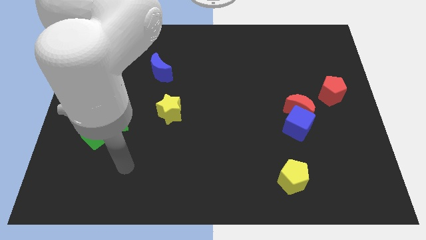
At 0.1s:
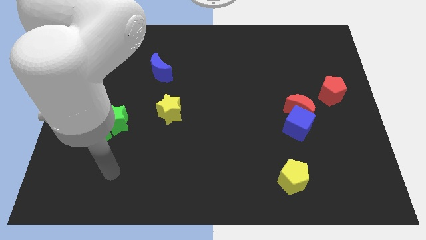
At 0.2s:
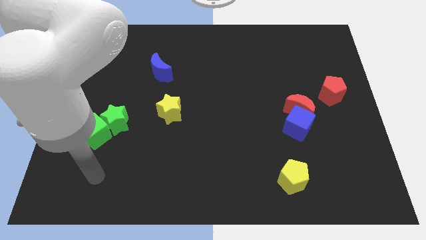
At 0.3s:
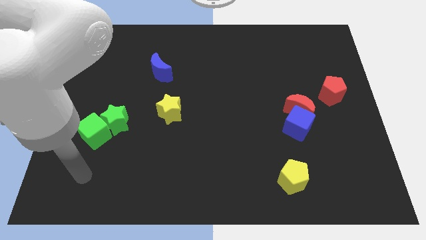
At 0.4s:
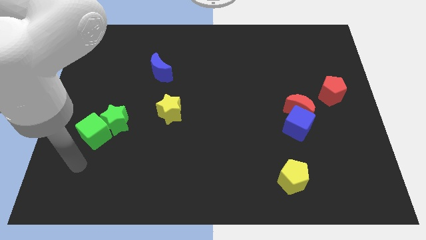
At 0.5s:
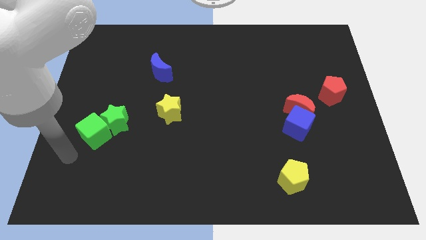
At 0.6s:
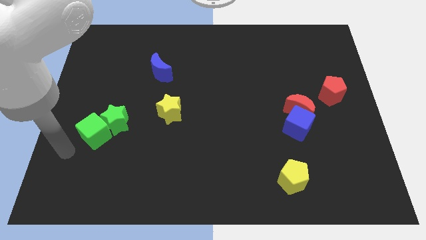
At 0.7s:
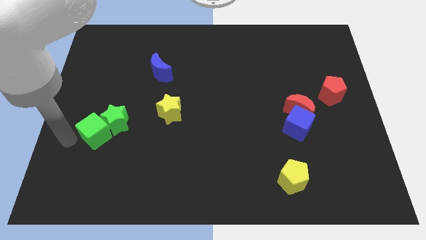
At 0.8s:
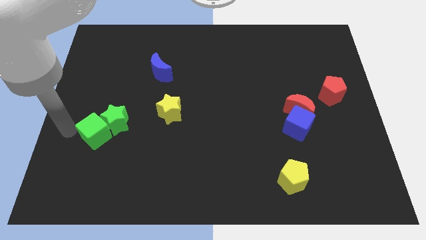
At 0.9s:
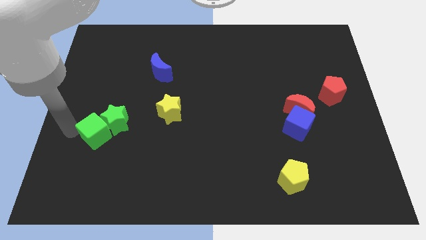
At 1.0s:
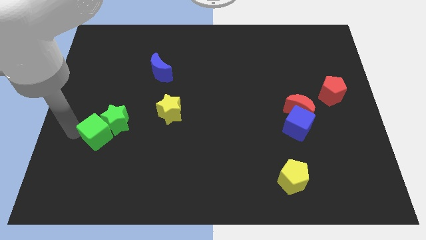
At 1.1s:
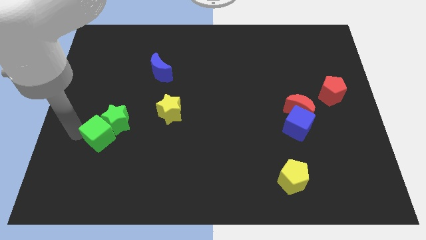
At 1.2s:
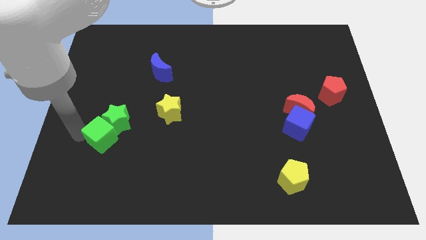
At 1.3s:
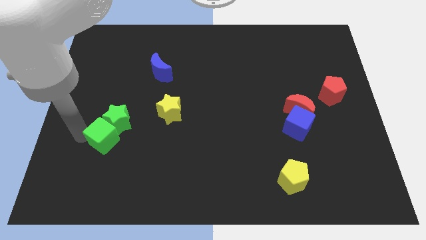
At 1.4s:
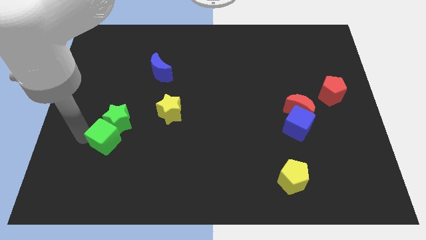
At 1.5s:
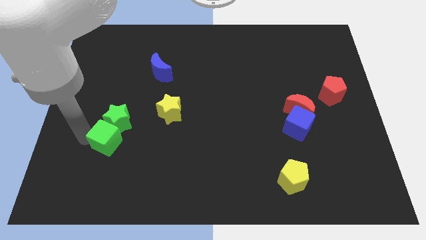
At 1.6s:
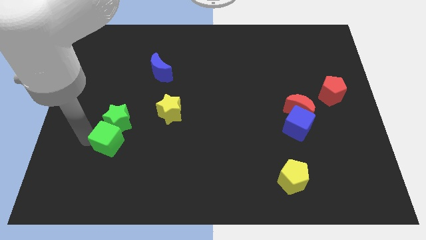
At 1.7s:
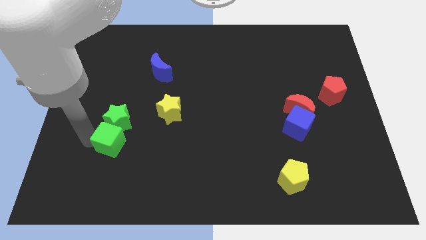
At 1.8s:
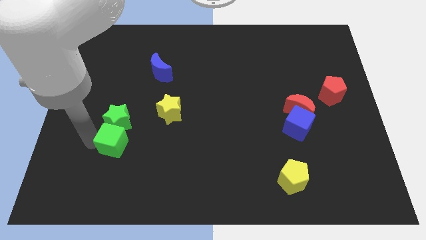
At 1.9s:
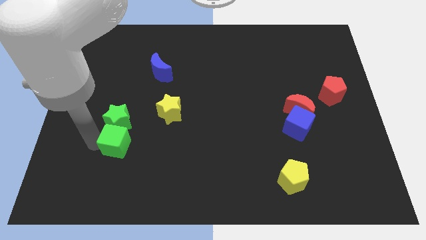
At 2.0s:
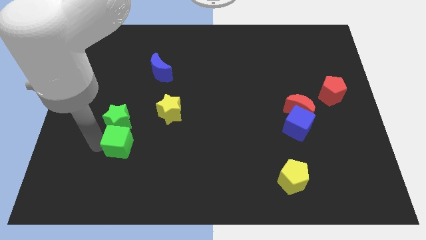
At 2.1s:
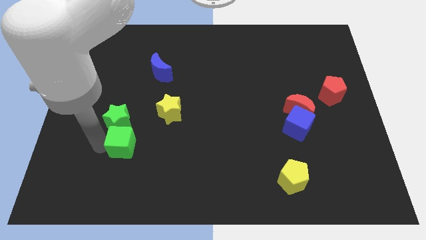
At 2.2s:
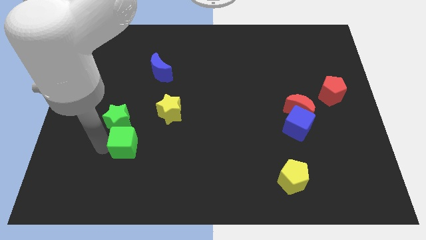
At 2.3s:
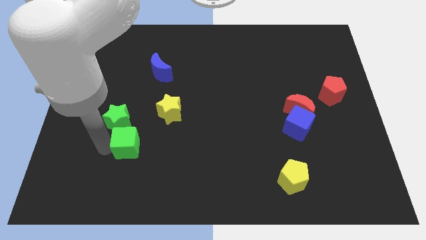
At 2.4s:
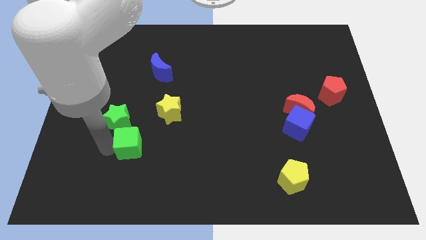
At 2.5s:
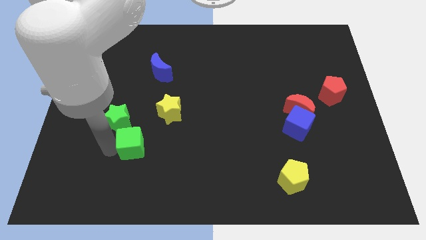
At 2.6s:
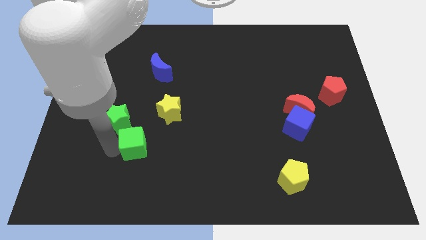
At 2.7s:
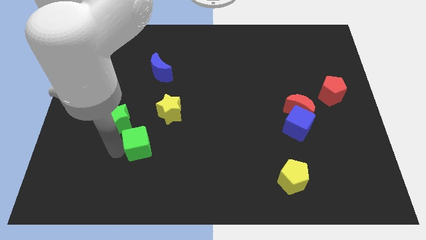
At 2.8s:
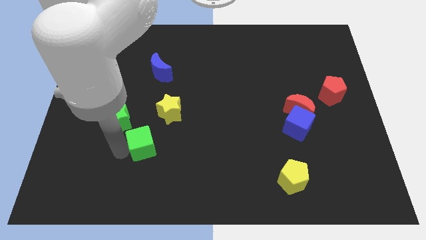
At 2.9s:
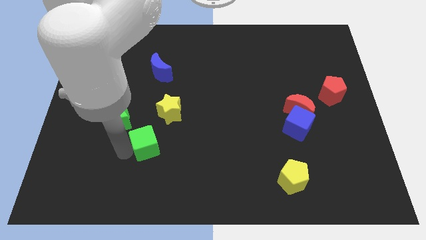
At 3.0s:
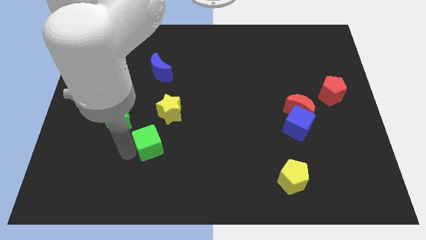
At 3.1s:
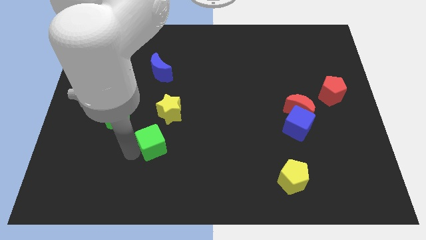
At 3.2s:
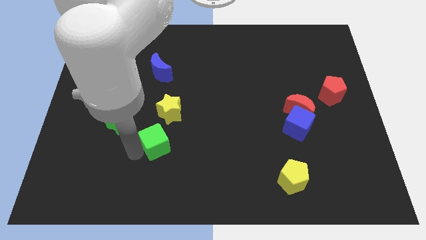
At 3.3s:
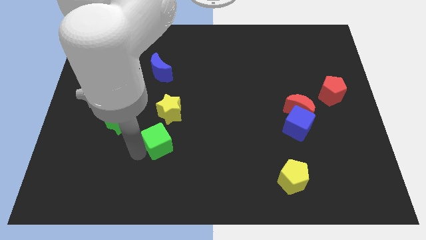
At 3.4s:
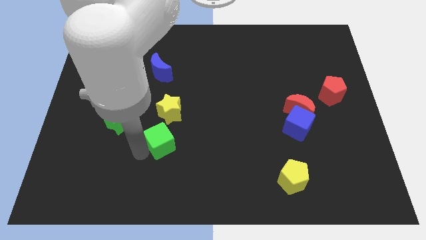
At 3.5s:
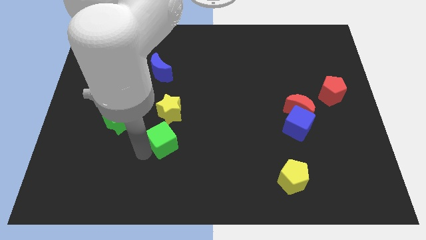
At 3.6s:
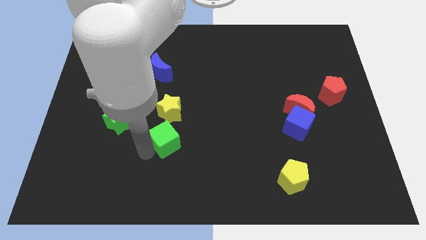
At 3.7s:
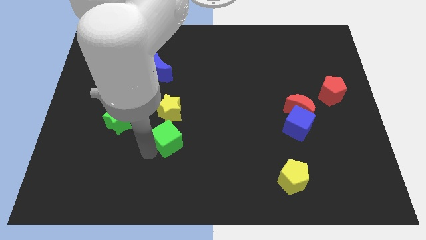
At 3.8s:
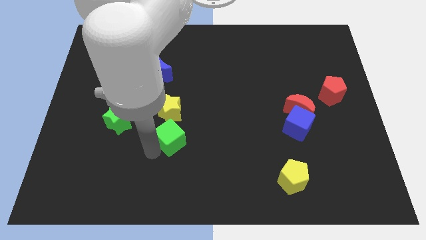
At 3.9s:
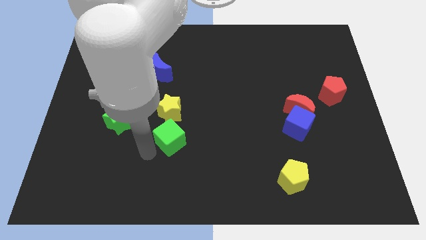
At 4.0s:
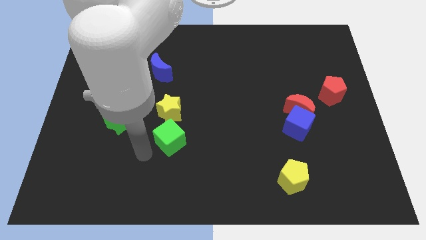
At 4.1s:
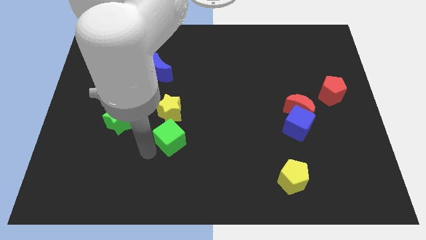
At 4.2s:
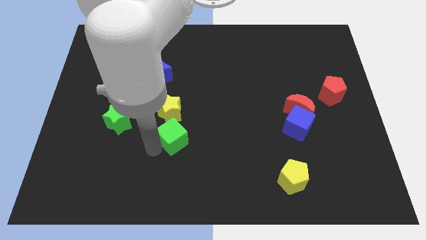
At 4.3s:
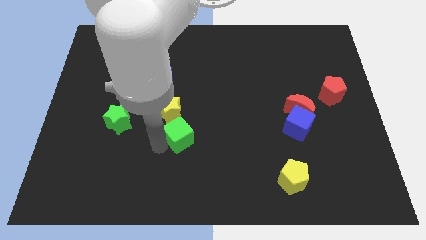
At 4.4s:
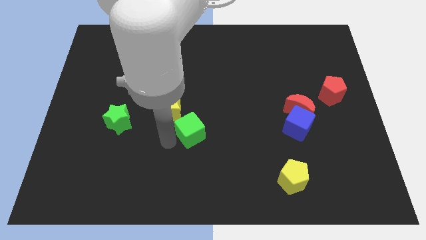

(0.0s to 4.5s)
move the green cube right

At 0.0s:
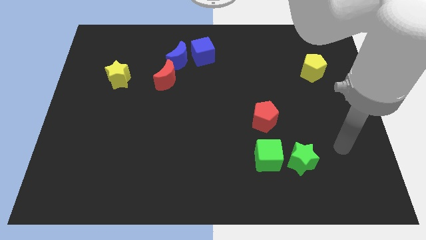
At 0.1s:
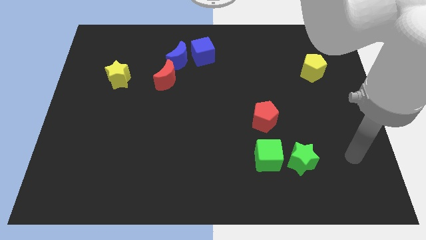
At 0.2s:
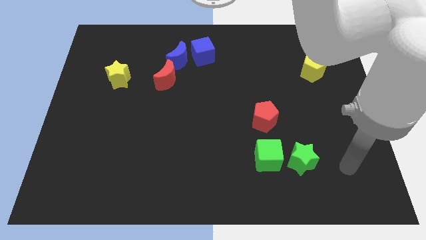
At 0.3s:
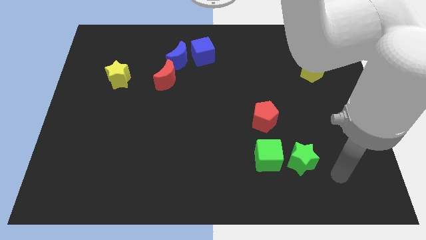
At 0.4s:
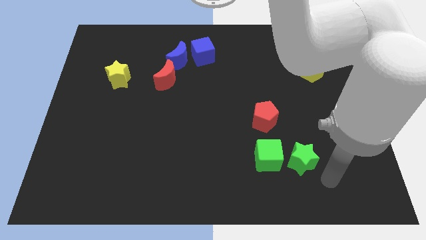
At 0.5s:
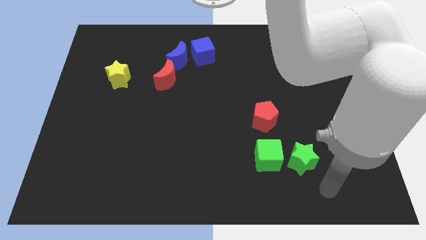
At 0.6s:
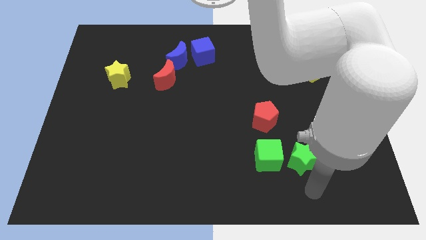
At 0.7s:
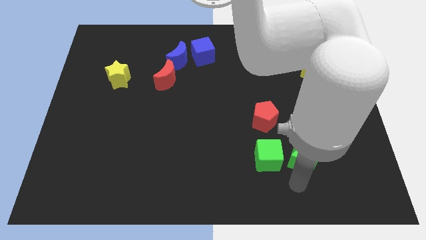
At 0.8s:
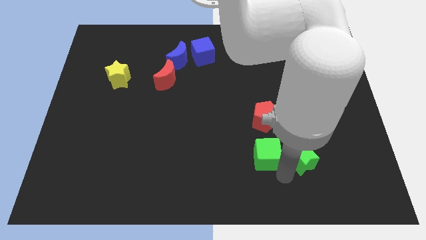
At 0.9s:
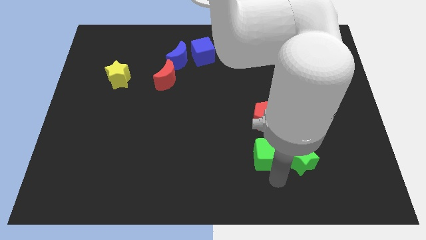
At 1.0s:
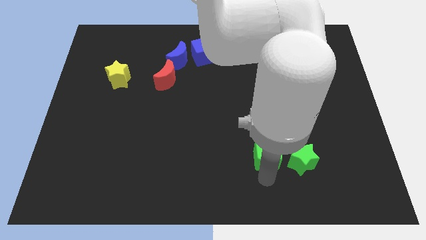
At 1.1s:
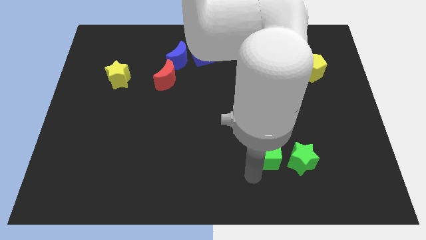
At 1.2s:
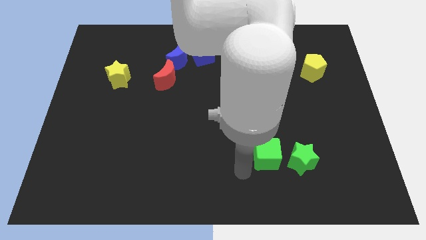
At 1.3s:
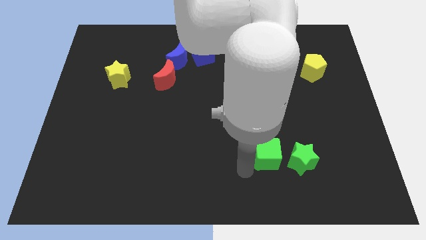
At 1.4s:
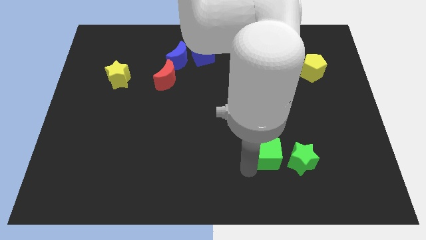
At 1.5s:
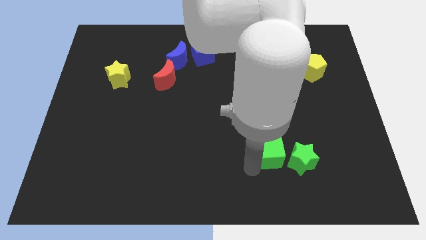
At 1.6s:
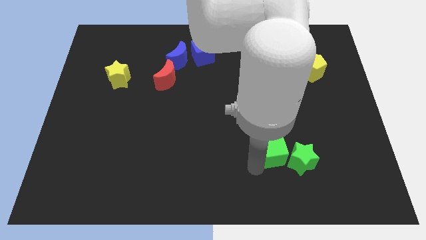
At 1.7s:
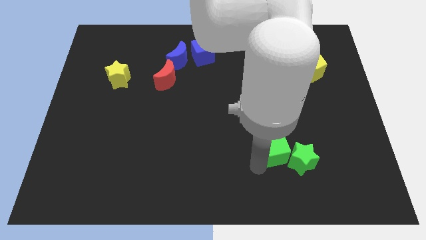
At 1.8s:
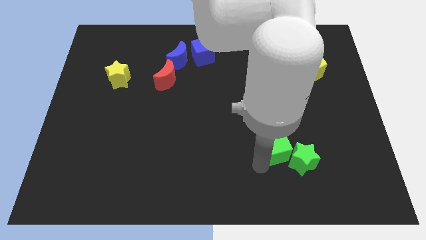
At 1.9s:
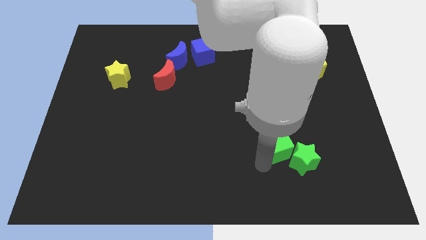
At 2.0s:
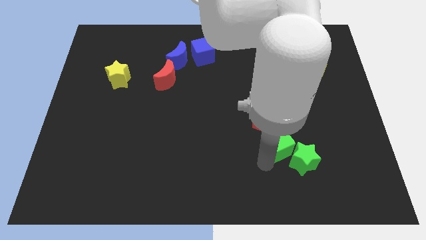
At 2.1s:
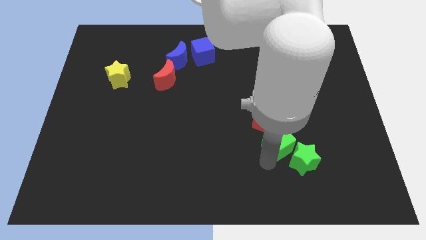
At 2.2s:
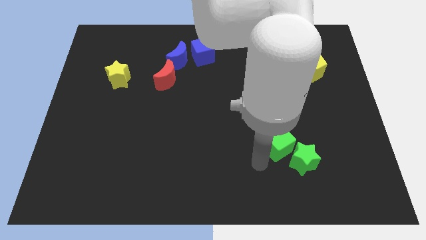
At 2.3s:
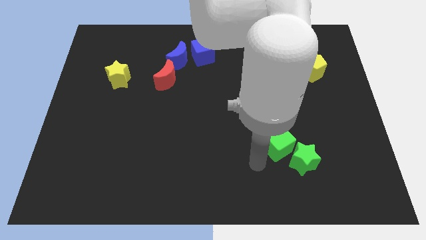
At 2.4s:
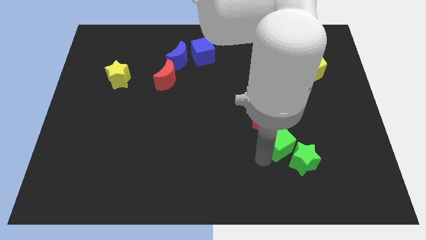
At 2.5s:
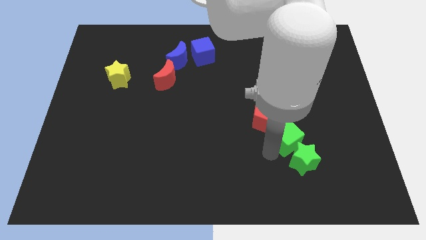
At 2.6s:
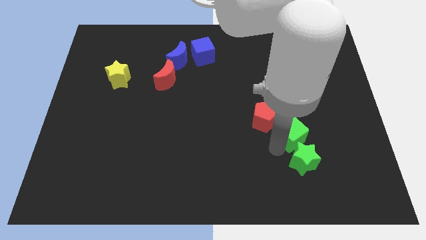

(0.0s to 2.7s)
move the green cube a little bit up and right diagonally

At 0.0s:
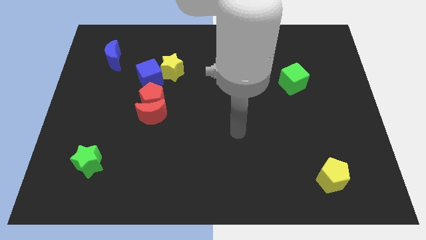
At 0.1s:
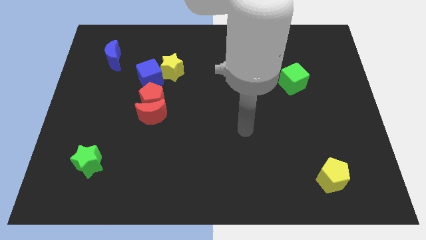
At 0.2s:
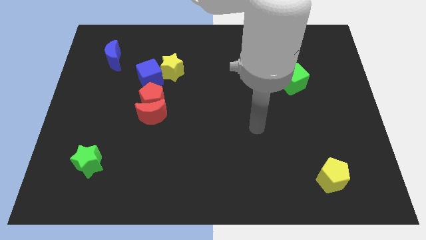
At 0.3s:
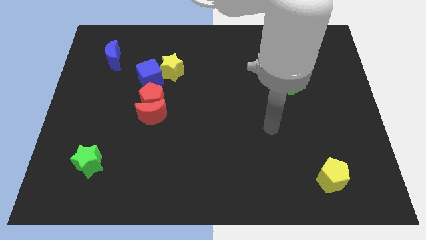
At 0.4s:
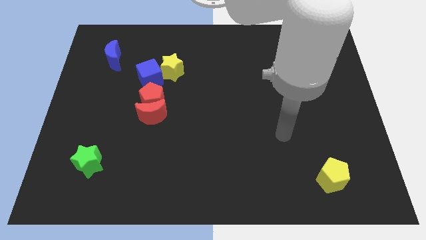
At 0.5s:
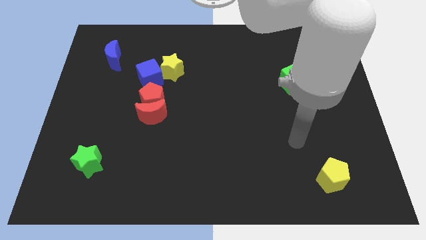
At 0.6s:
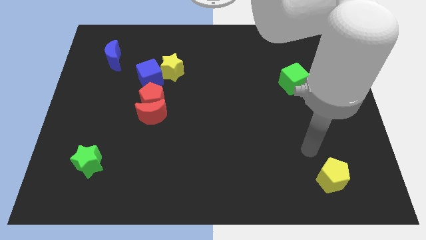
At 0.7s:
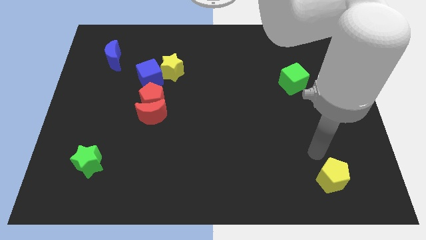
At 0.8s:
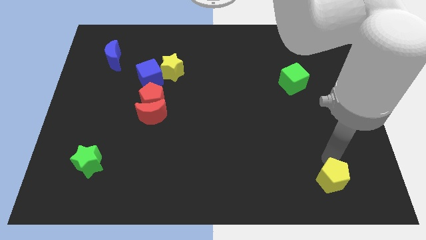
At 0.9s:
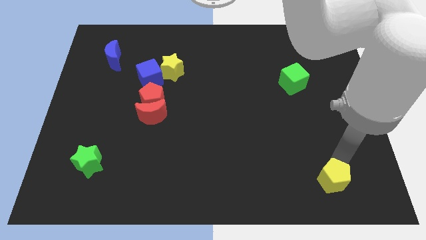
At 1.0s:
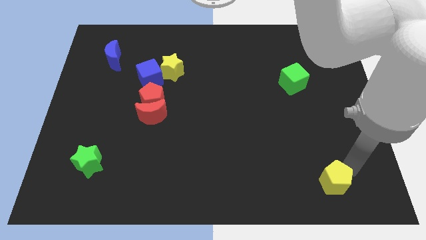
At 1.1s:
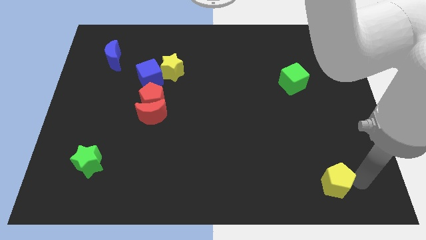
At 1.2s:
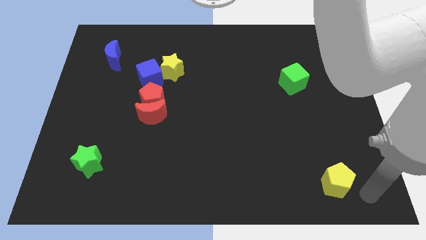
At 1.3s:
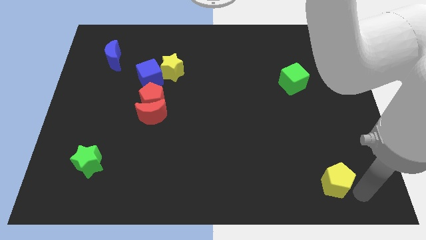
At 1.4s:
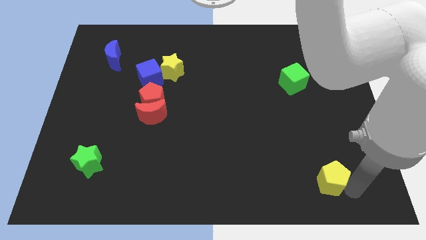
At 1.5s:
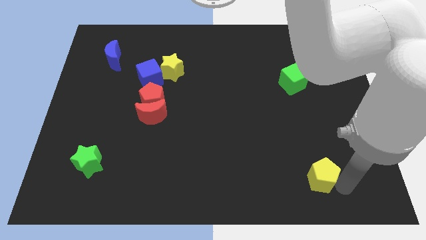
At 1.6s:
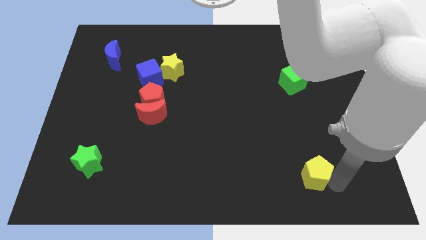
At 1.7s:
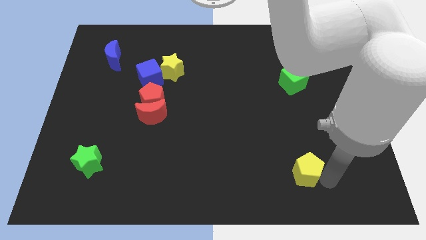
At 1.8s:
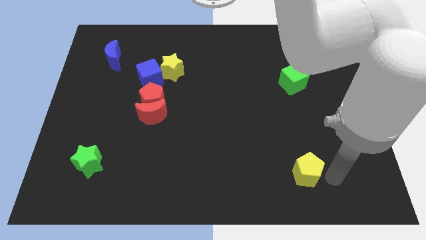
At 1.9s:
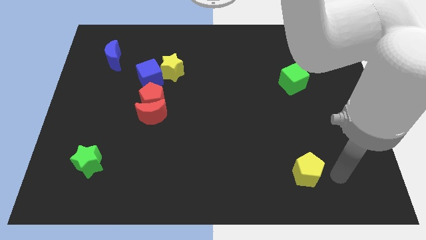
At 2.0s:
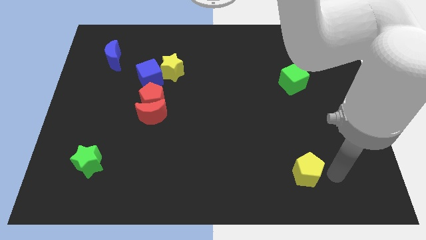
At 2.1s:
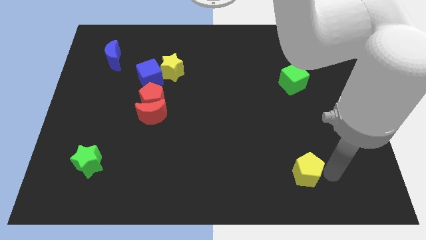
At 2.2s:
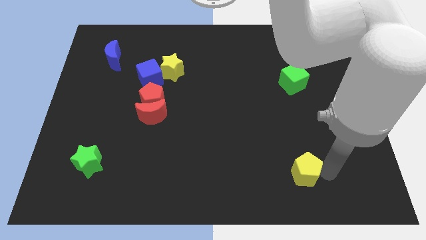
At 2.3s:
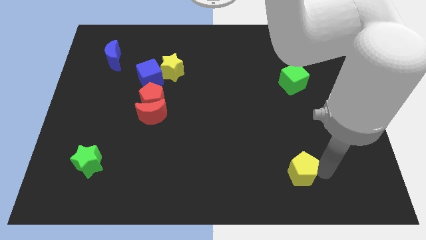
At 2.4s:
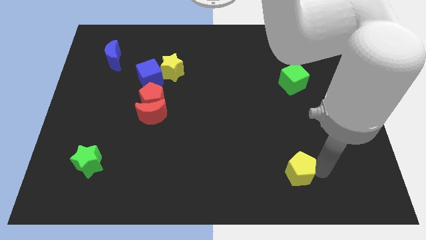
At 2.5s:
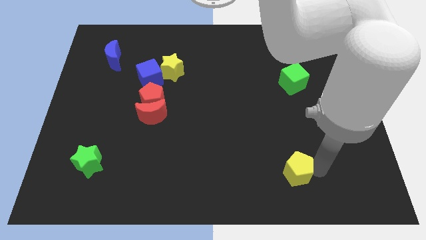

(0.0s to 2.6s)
slightly slide the yellow pentagon left
